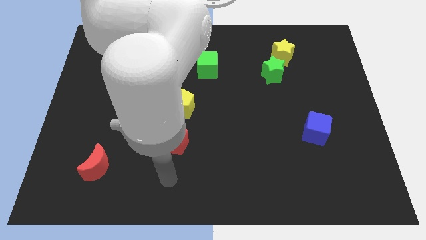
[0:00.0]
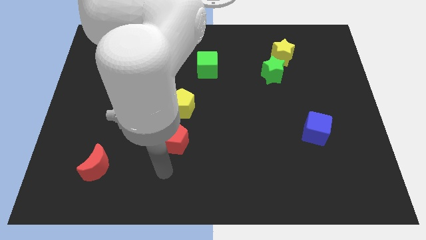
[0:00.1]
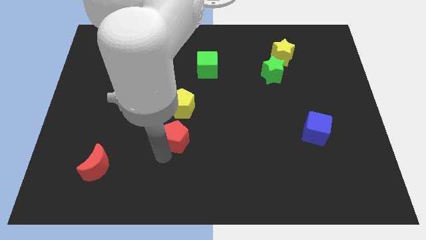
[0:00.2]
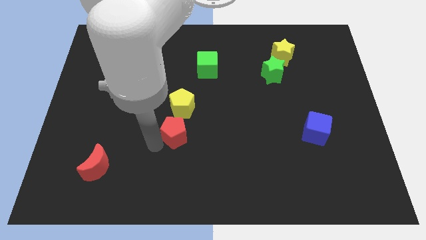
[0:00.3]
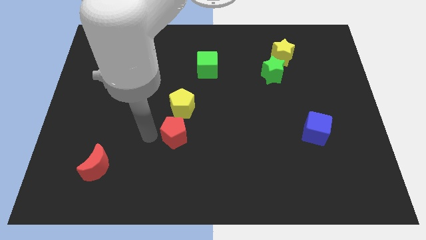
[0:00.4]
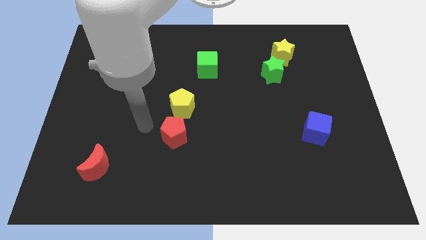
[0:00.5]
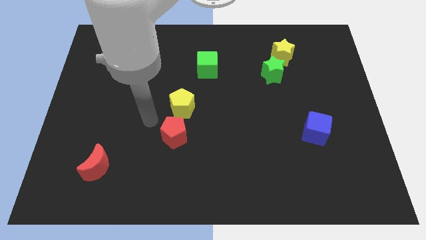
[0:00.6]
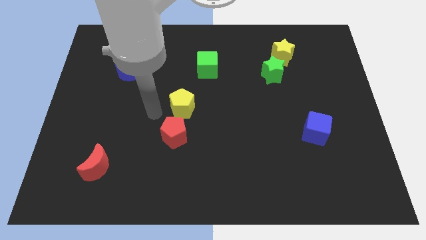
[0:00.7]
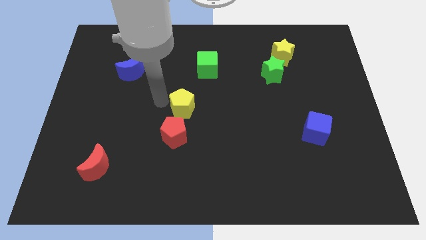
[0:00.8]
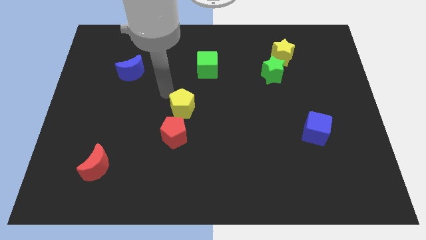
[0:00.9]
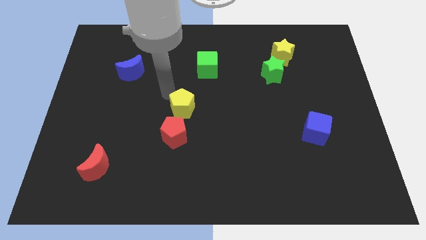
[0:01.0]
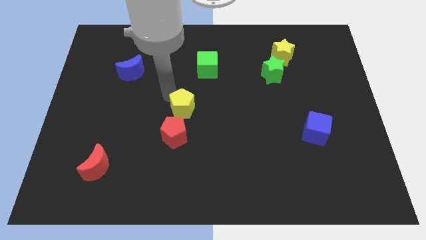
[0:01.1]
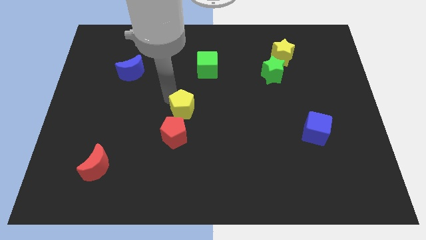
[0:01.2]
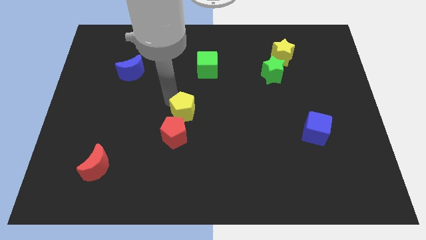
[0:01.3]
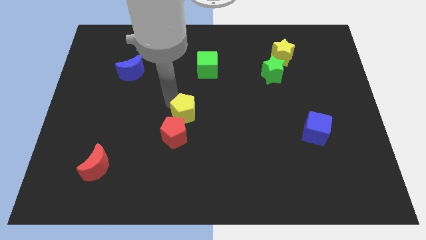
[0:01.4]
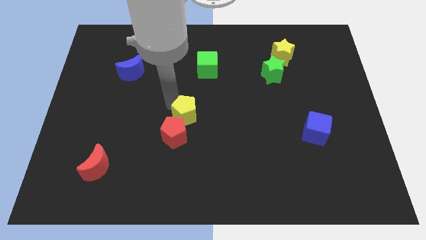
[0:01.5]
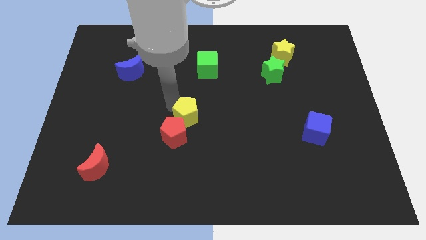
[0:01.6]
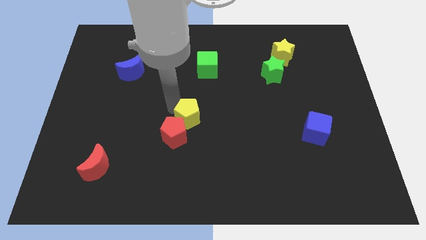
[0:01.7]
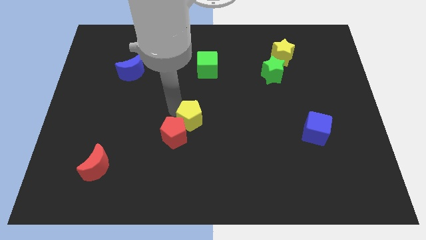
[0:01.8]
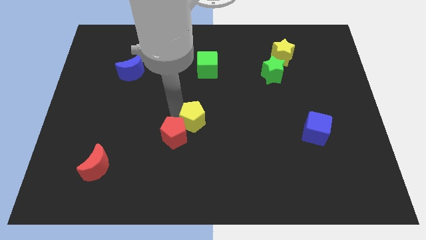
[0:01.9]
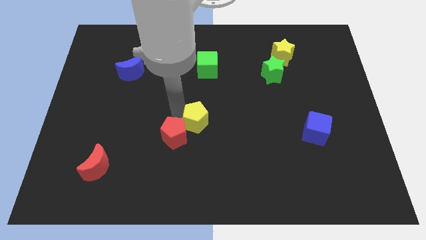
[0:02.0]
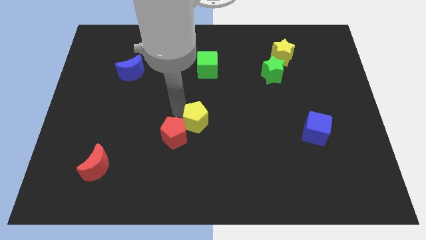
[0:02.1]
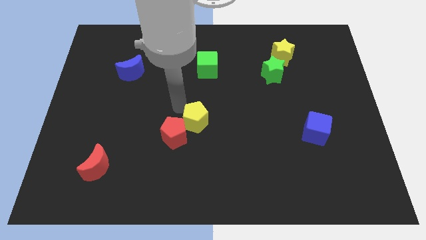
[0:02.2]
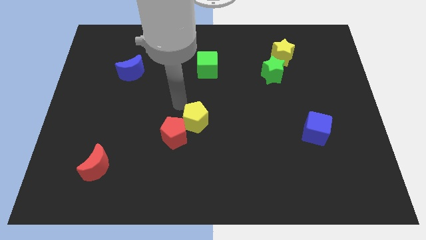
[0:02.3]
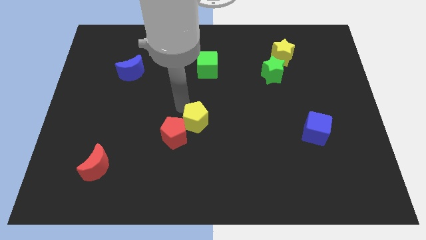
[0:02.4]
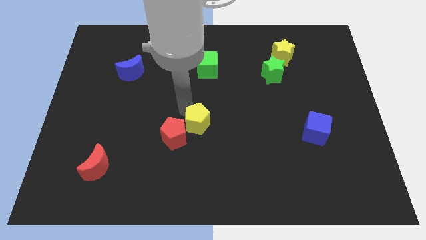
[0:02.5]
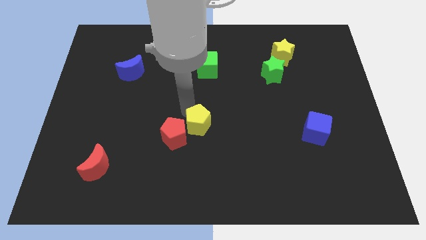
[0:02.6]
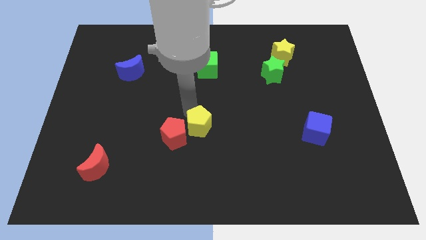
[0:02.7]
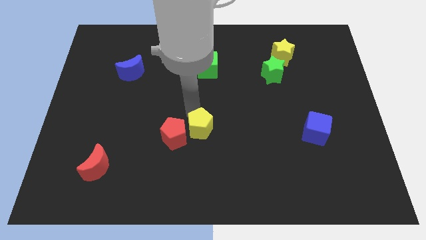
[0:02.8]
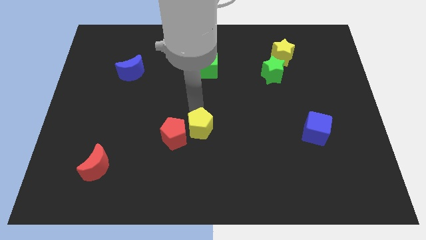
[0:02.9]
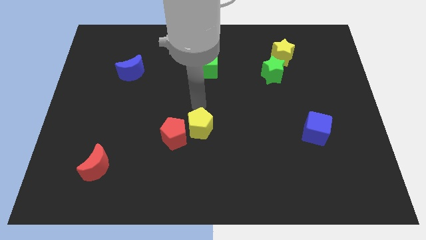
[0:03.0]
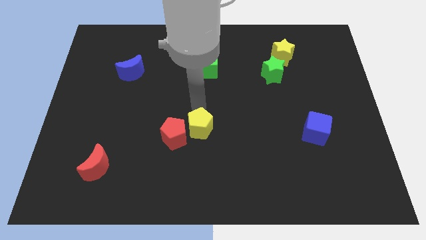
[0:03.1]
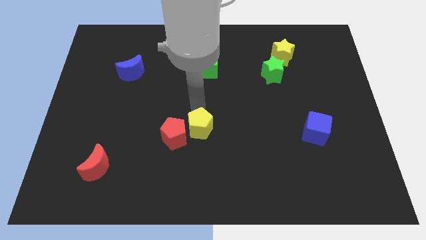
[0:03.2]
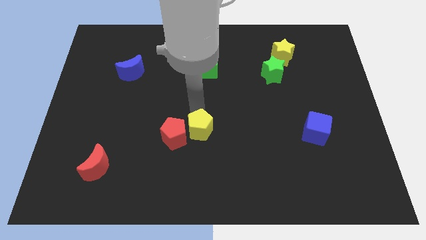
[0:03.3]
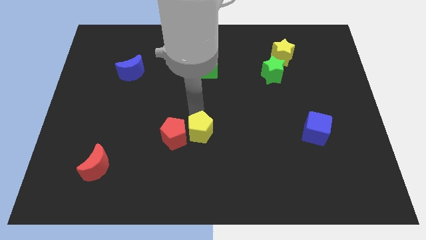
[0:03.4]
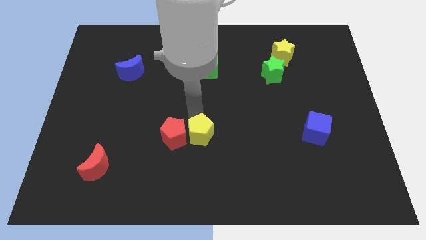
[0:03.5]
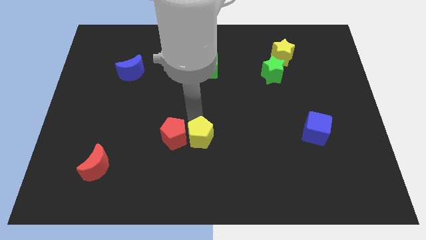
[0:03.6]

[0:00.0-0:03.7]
slide the yellow pentagon downwards a little

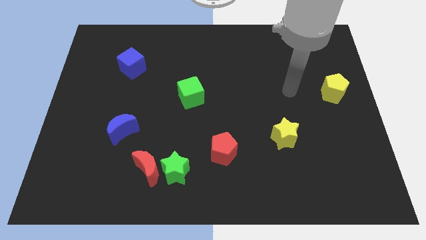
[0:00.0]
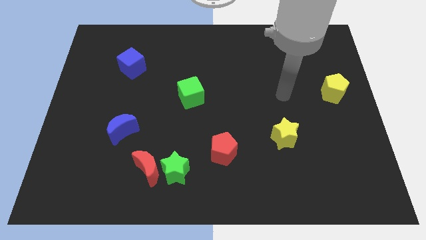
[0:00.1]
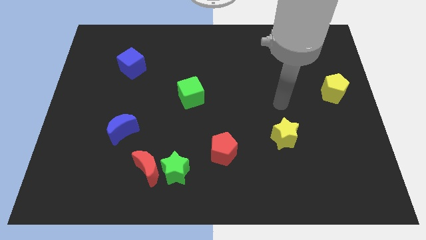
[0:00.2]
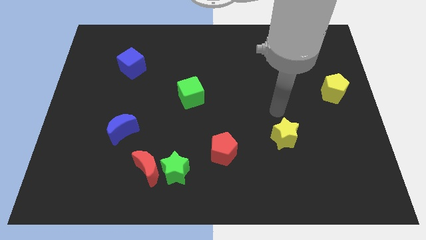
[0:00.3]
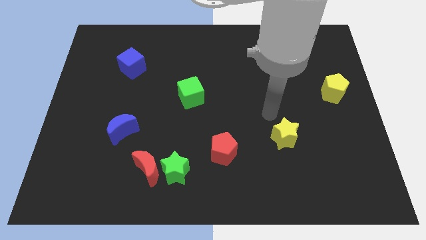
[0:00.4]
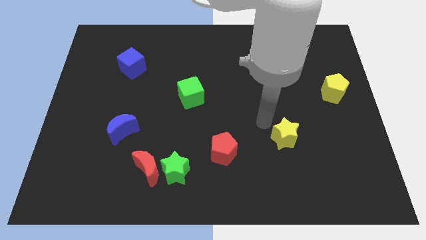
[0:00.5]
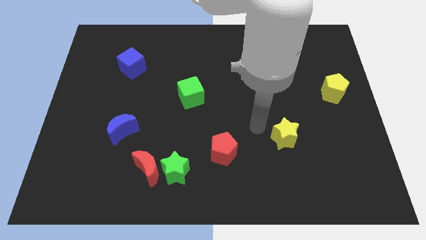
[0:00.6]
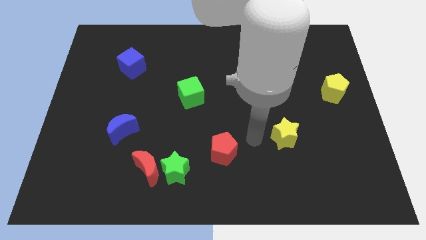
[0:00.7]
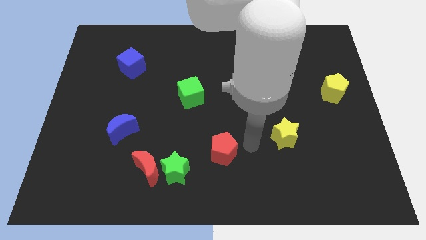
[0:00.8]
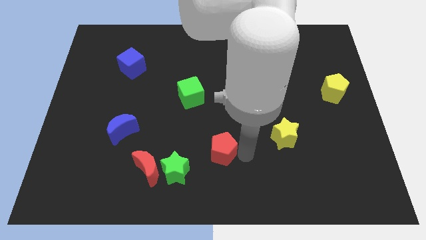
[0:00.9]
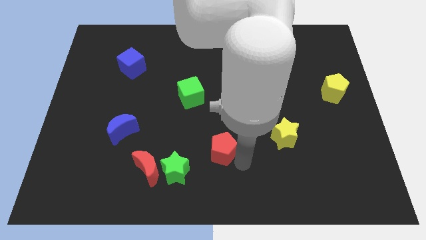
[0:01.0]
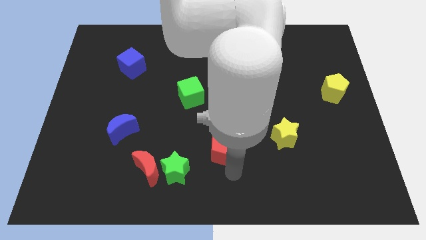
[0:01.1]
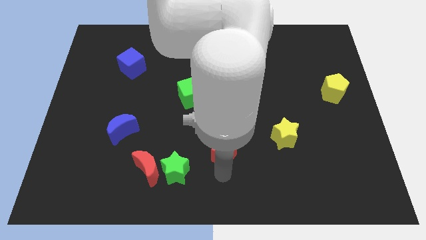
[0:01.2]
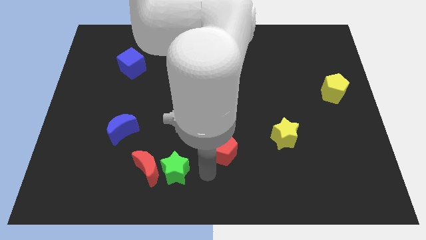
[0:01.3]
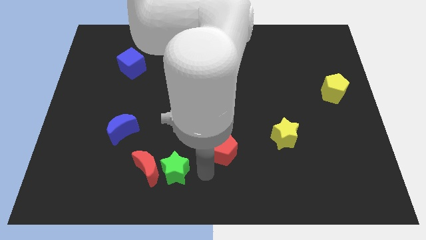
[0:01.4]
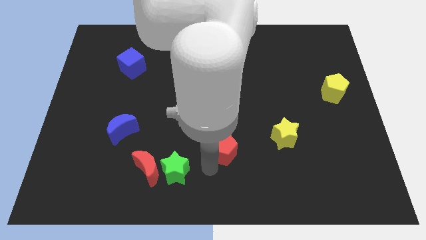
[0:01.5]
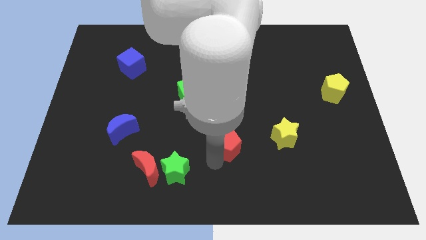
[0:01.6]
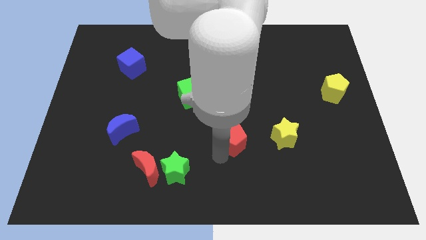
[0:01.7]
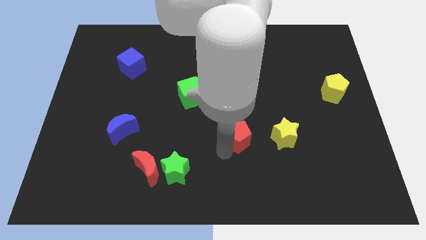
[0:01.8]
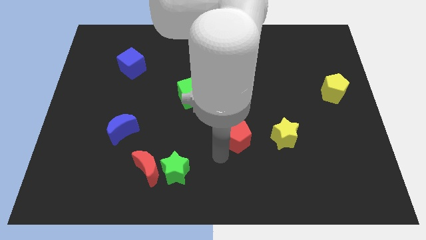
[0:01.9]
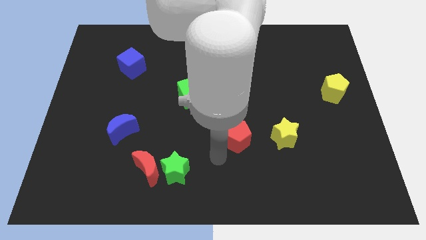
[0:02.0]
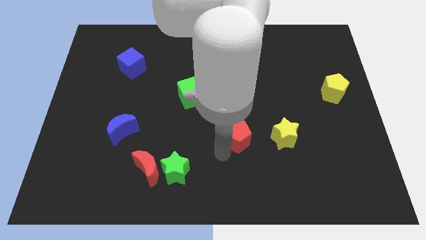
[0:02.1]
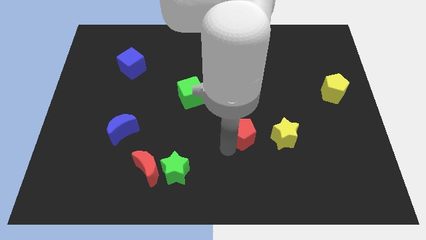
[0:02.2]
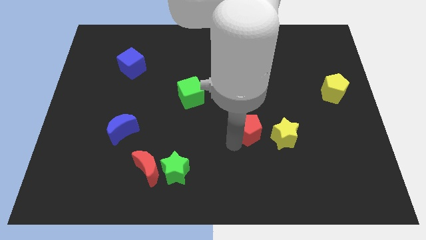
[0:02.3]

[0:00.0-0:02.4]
slide the red pentagon upwards and then to the right a little bit

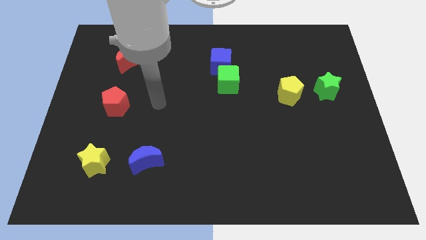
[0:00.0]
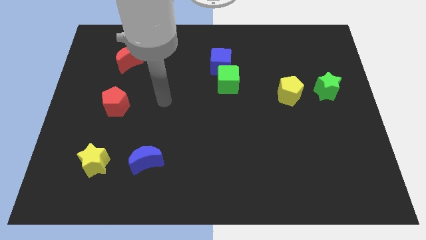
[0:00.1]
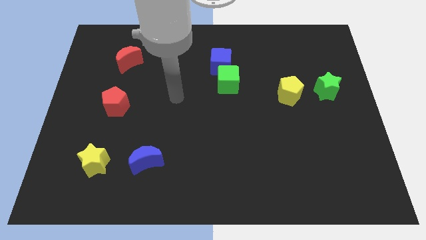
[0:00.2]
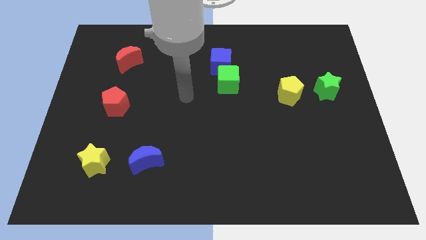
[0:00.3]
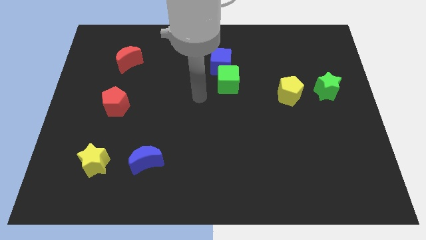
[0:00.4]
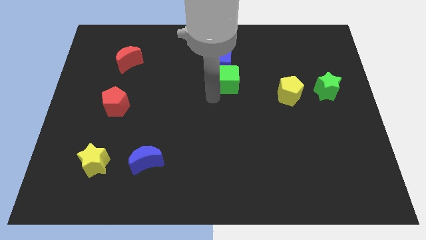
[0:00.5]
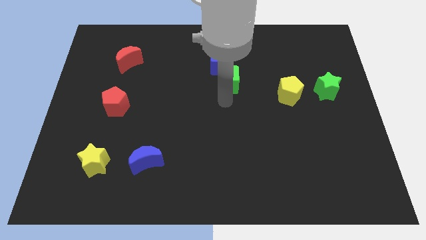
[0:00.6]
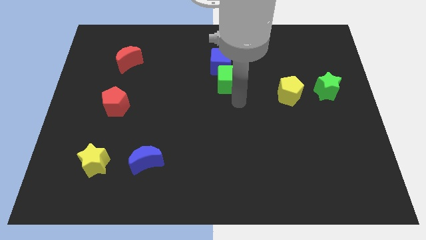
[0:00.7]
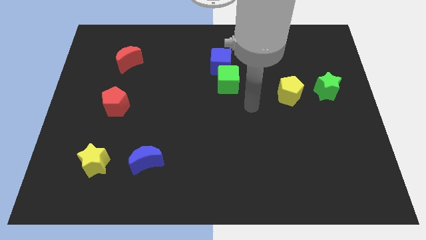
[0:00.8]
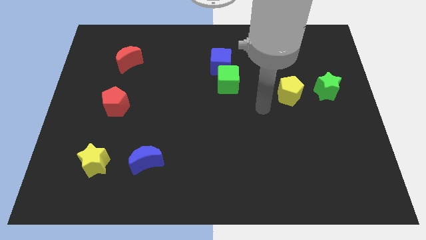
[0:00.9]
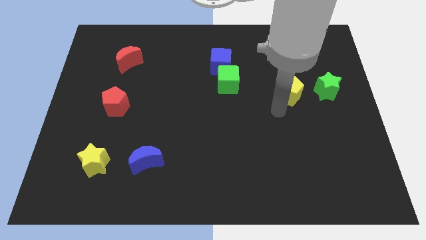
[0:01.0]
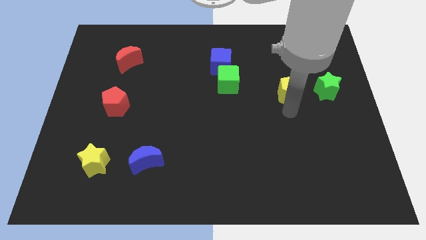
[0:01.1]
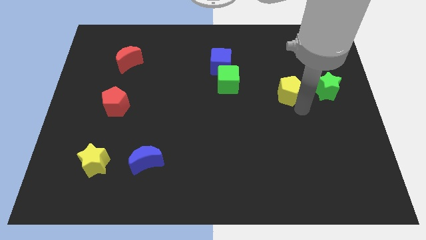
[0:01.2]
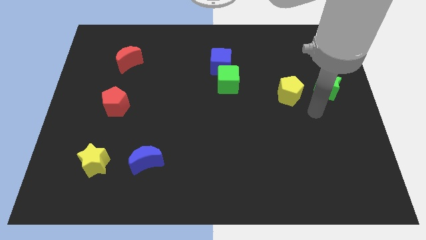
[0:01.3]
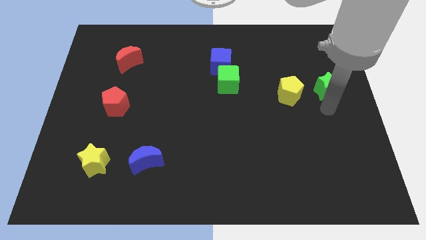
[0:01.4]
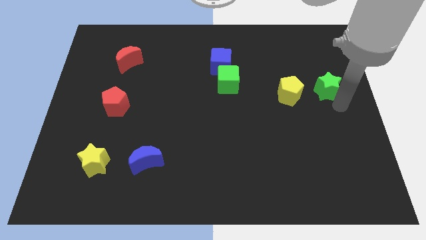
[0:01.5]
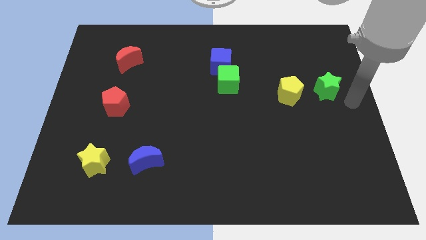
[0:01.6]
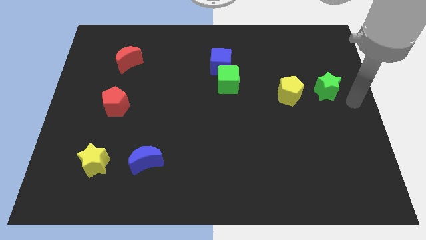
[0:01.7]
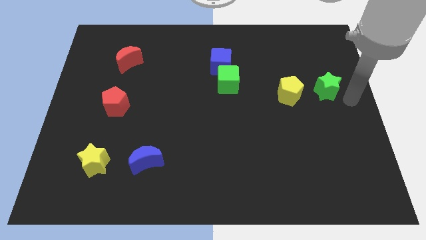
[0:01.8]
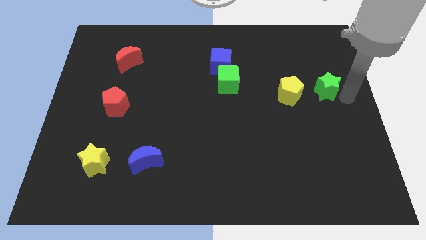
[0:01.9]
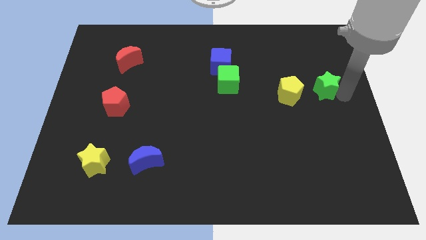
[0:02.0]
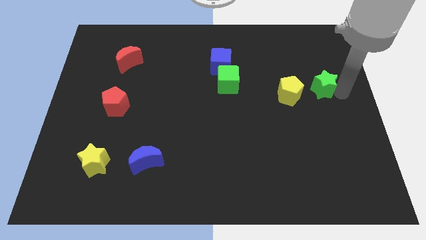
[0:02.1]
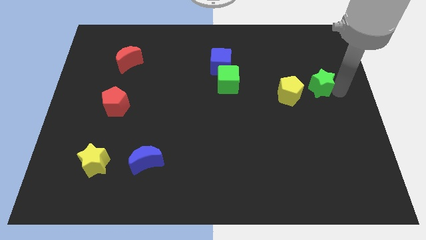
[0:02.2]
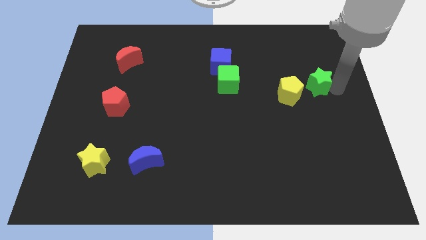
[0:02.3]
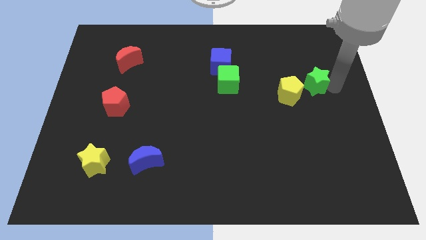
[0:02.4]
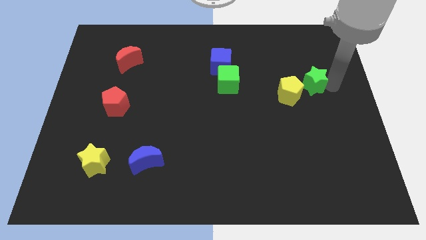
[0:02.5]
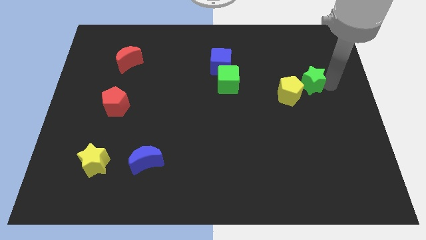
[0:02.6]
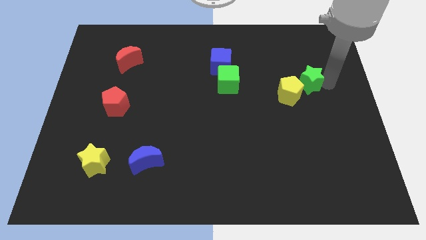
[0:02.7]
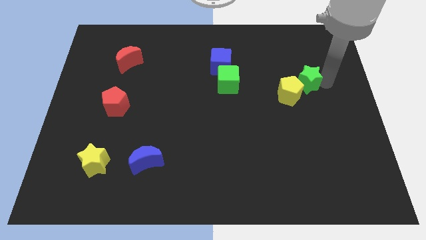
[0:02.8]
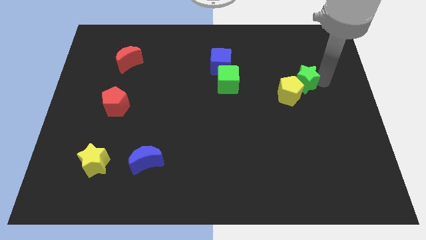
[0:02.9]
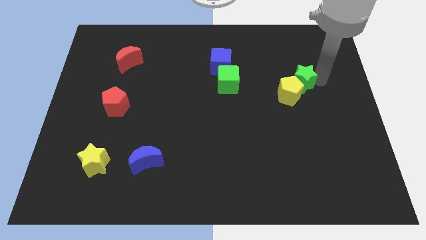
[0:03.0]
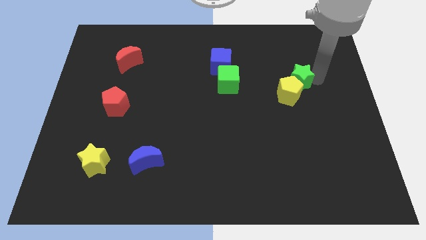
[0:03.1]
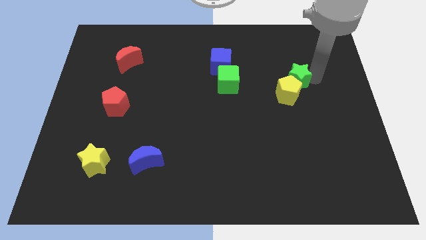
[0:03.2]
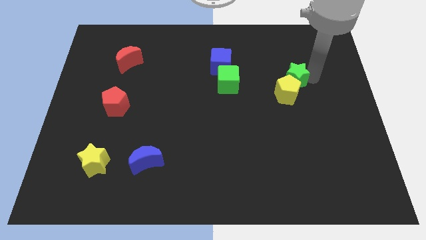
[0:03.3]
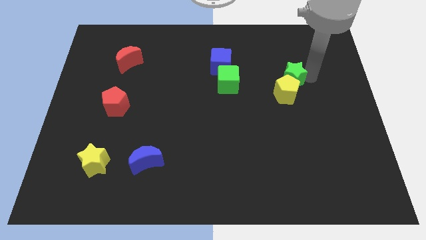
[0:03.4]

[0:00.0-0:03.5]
slide the green star left a little
